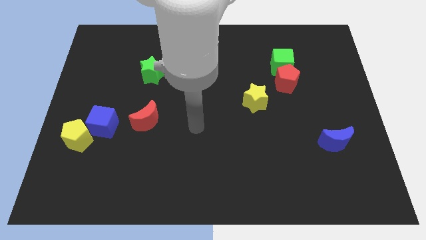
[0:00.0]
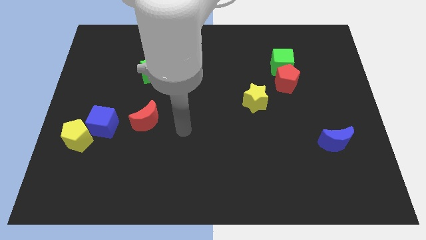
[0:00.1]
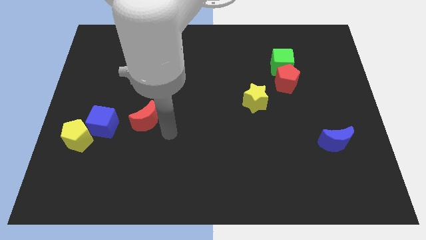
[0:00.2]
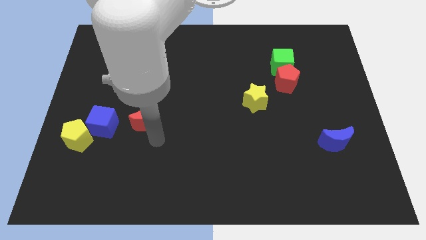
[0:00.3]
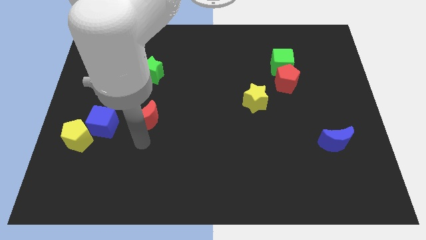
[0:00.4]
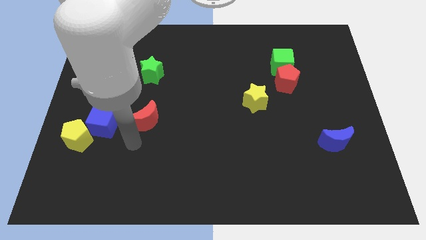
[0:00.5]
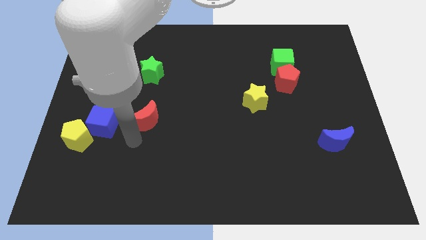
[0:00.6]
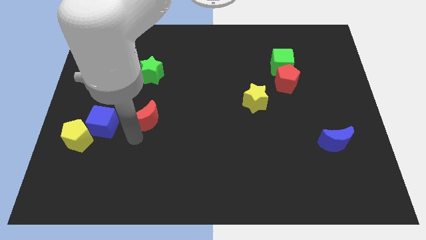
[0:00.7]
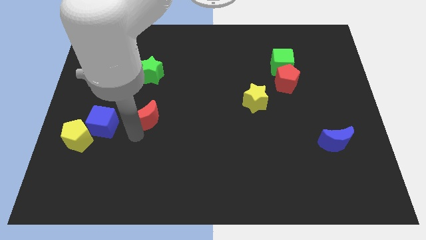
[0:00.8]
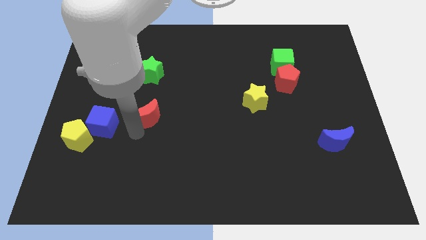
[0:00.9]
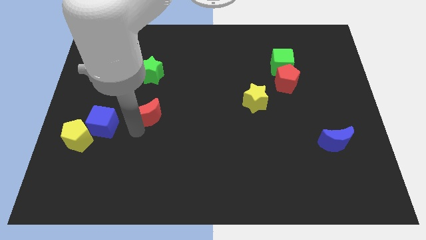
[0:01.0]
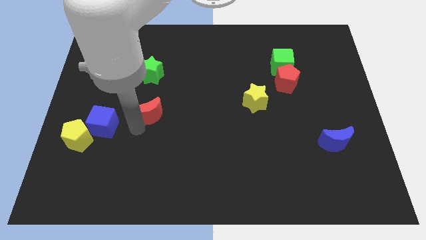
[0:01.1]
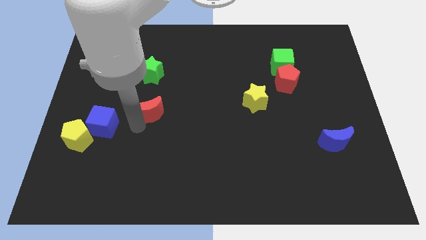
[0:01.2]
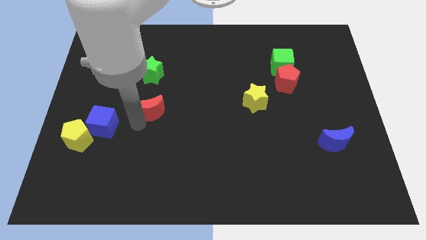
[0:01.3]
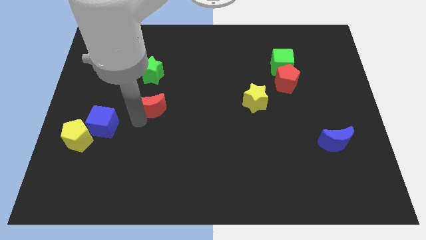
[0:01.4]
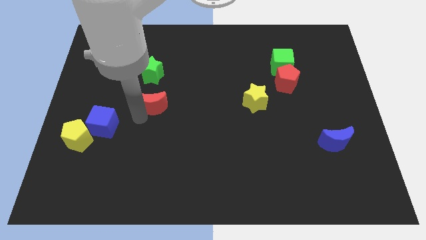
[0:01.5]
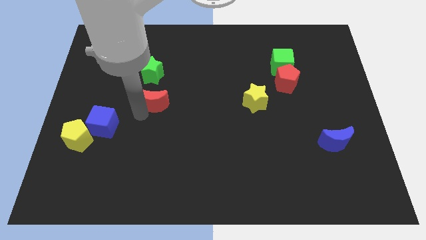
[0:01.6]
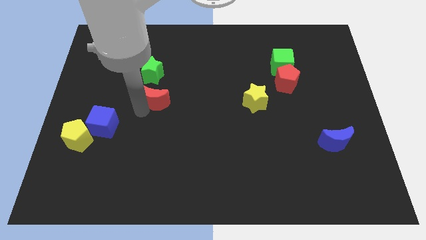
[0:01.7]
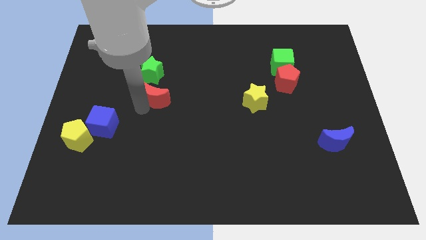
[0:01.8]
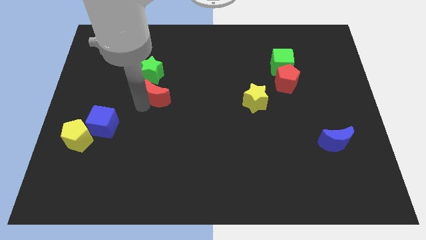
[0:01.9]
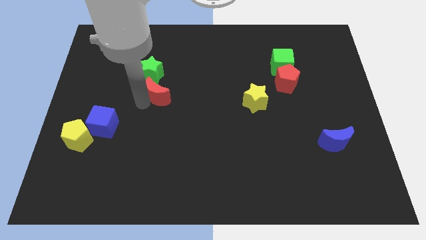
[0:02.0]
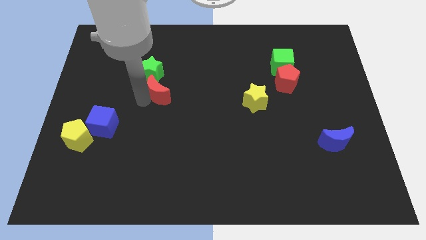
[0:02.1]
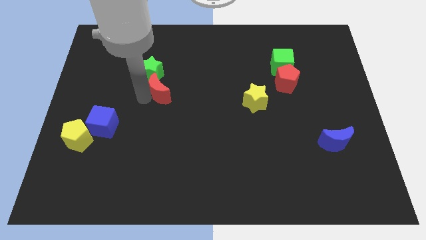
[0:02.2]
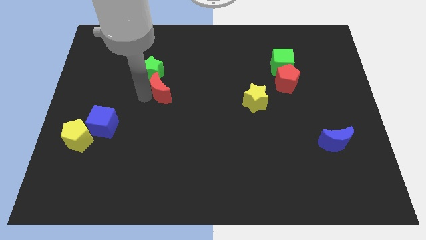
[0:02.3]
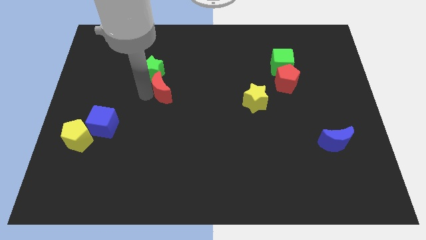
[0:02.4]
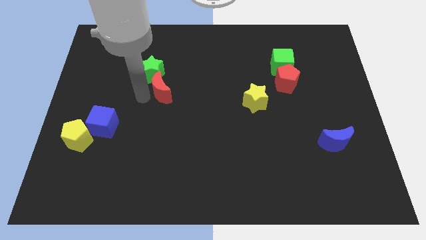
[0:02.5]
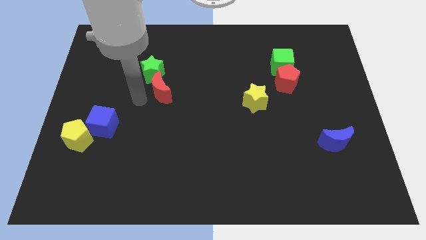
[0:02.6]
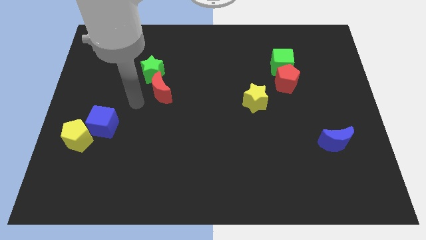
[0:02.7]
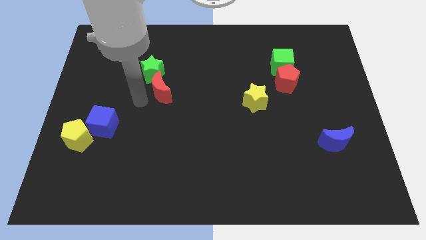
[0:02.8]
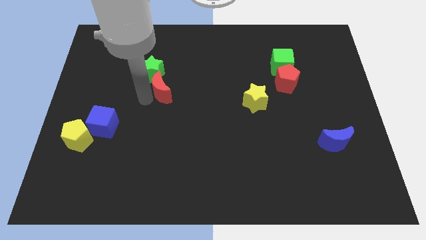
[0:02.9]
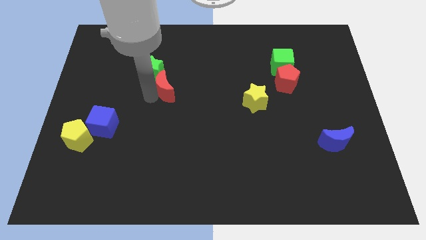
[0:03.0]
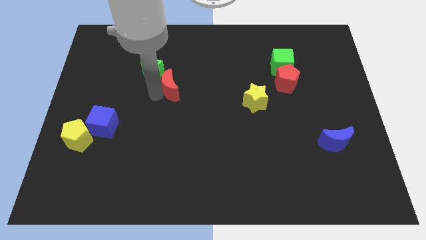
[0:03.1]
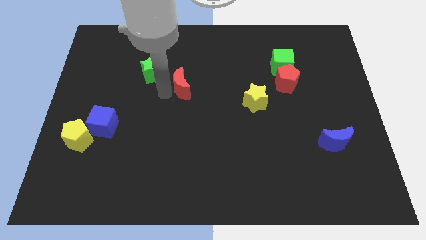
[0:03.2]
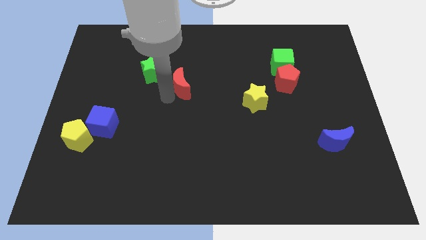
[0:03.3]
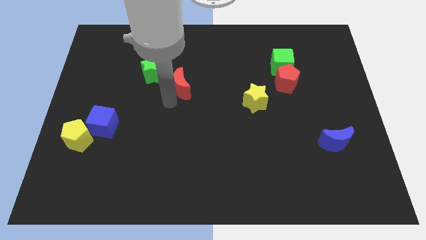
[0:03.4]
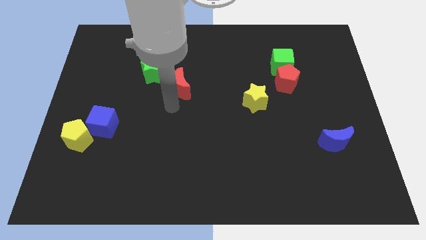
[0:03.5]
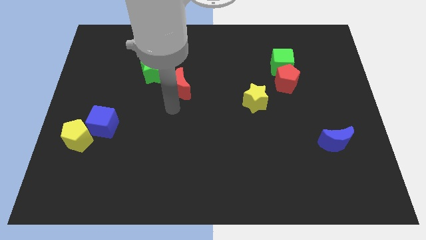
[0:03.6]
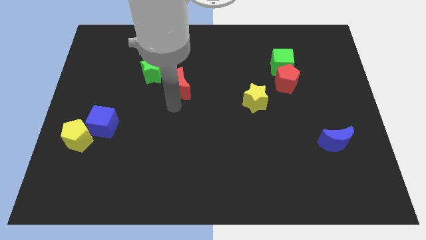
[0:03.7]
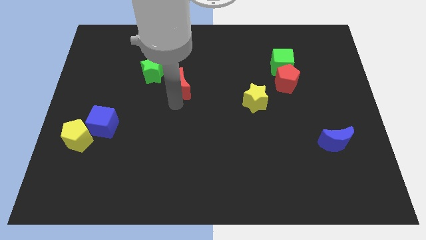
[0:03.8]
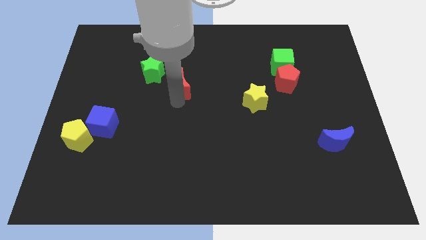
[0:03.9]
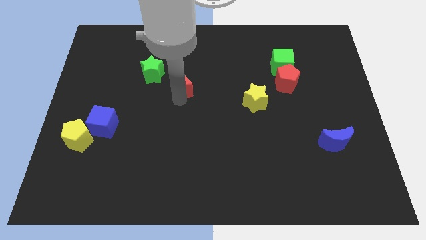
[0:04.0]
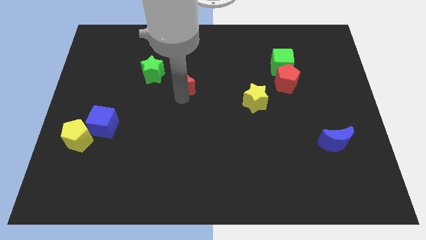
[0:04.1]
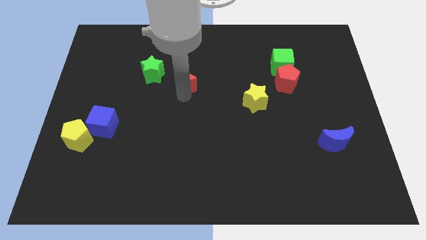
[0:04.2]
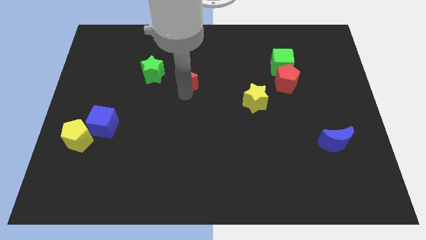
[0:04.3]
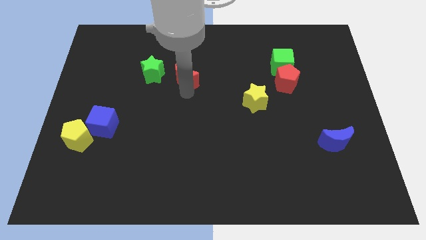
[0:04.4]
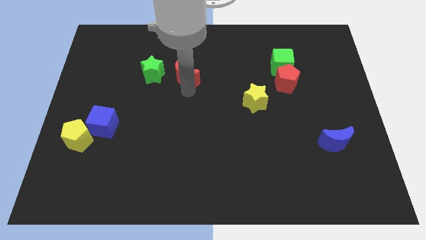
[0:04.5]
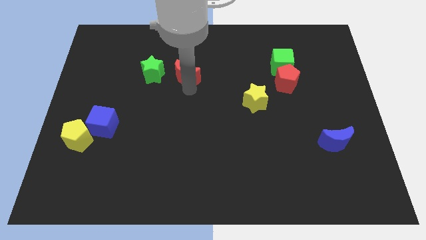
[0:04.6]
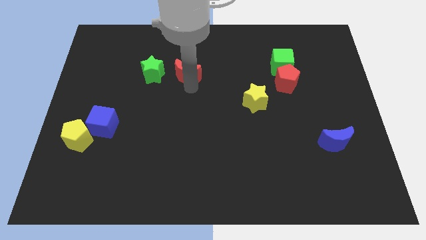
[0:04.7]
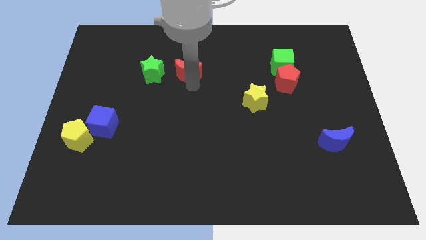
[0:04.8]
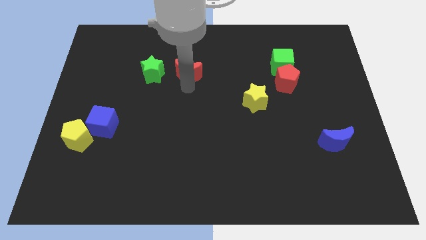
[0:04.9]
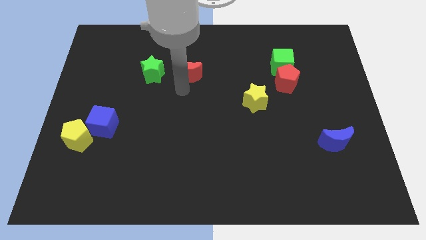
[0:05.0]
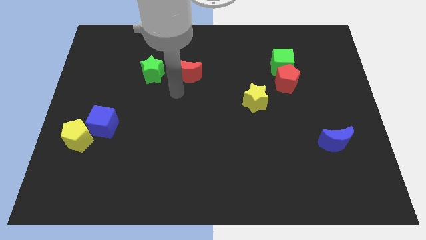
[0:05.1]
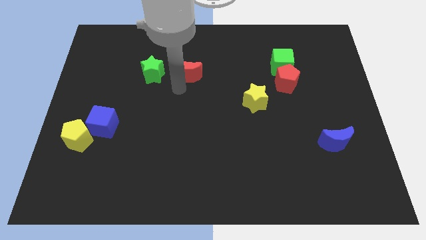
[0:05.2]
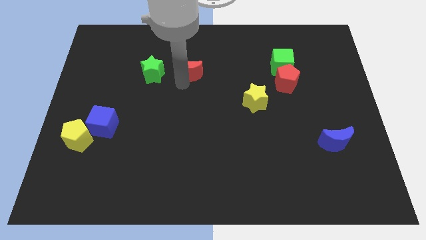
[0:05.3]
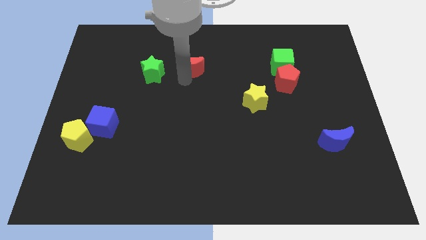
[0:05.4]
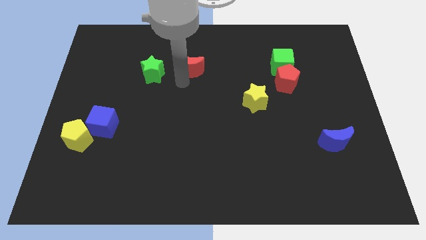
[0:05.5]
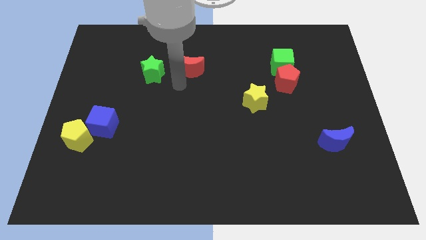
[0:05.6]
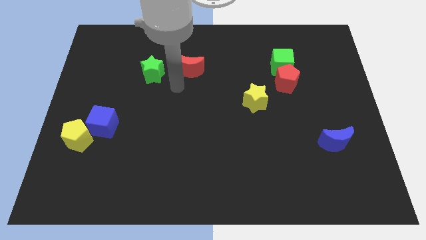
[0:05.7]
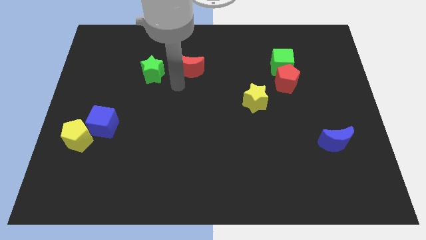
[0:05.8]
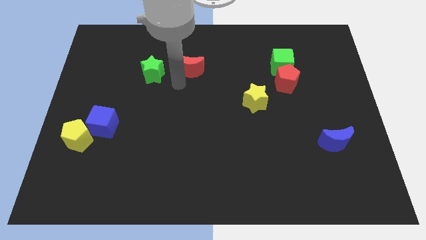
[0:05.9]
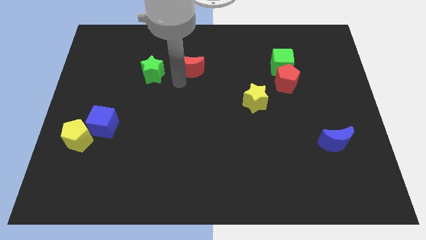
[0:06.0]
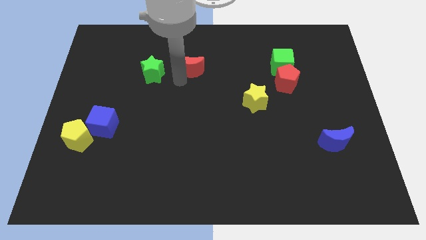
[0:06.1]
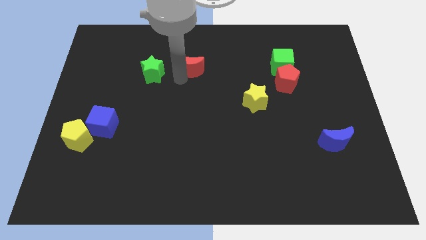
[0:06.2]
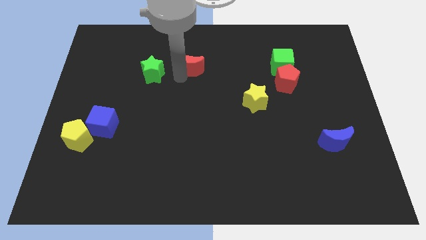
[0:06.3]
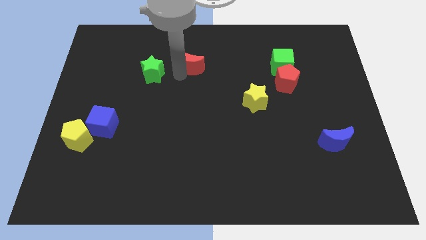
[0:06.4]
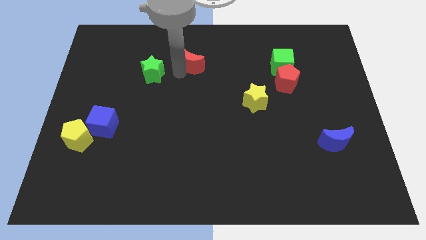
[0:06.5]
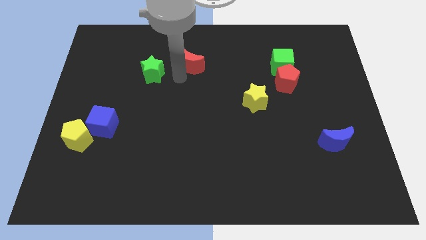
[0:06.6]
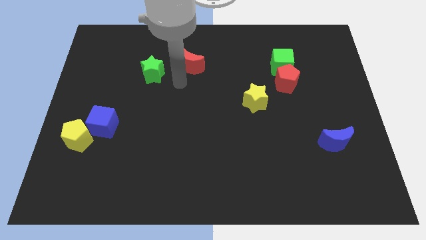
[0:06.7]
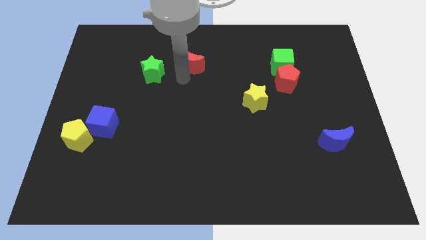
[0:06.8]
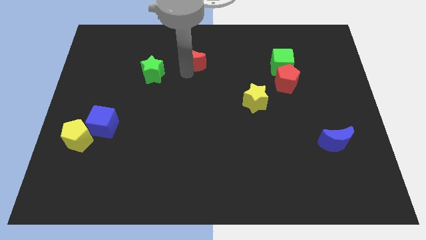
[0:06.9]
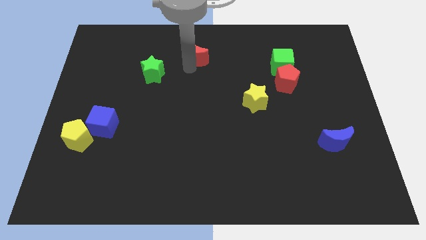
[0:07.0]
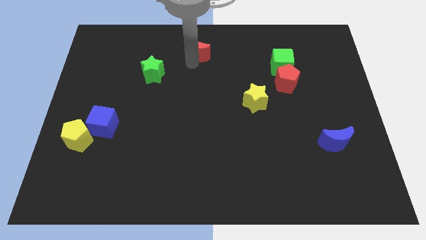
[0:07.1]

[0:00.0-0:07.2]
move the red moon to the top side
